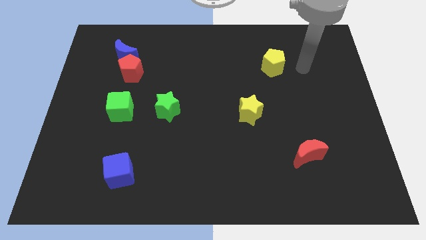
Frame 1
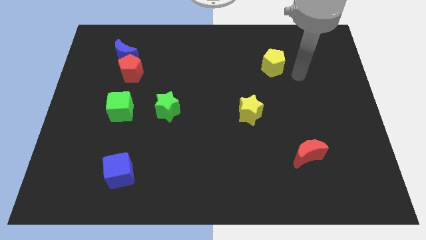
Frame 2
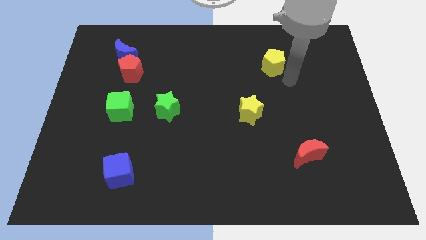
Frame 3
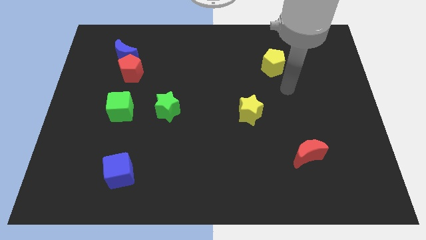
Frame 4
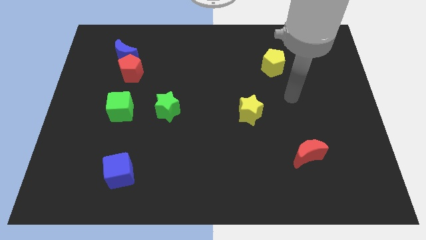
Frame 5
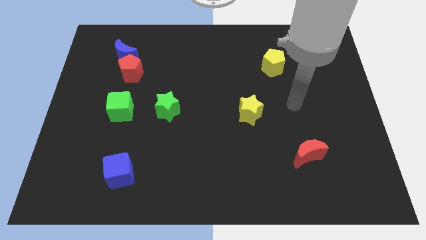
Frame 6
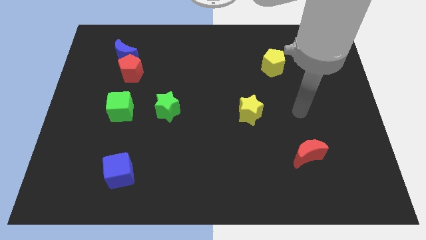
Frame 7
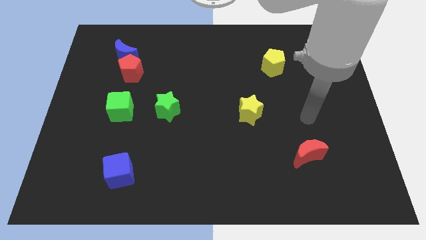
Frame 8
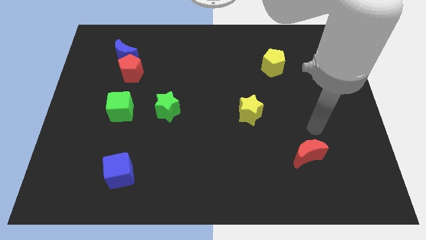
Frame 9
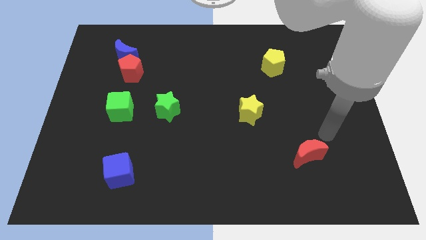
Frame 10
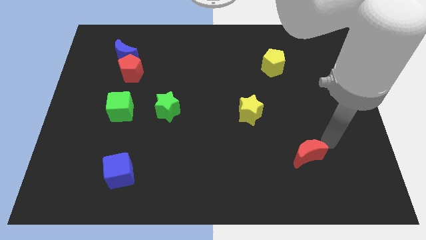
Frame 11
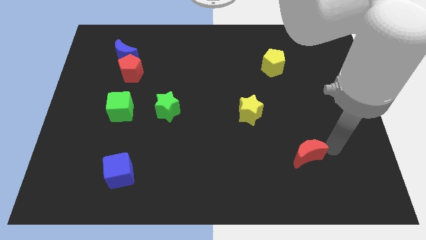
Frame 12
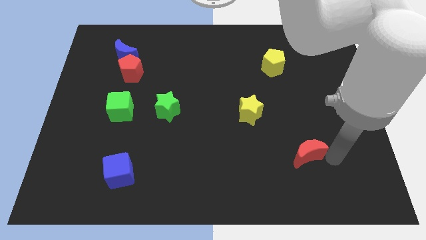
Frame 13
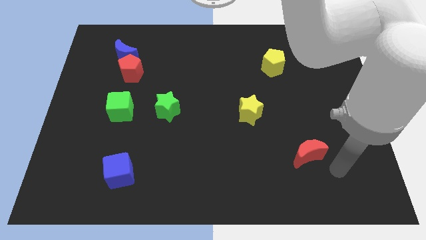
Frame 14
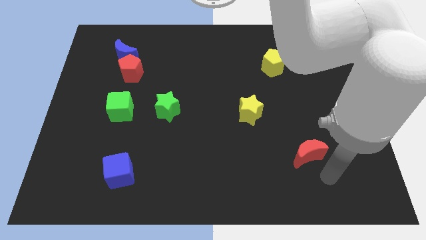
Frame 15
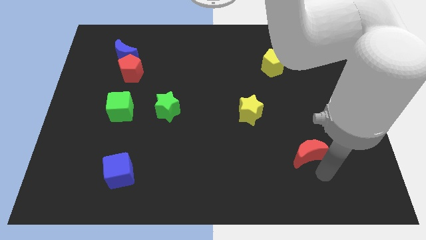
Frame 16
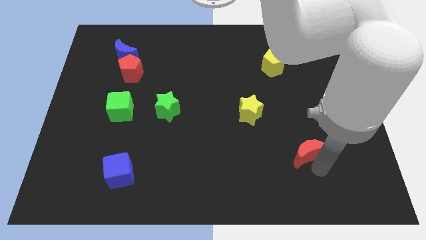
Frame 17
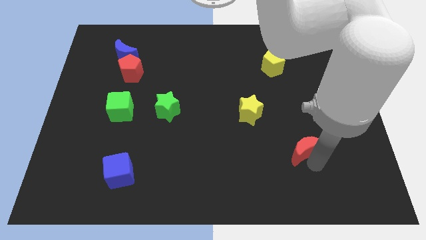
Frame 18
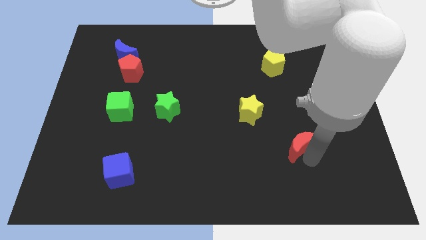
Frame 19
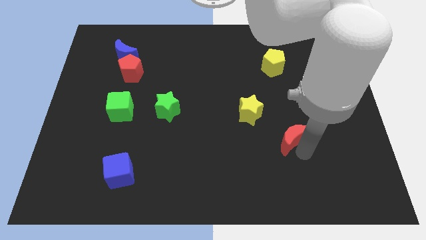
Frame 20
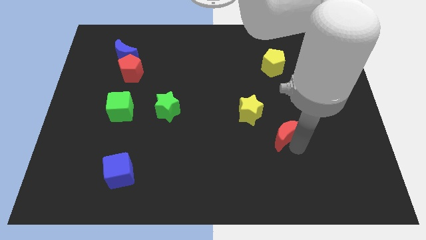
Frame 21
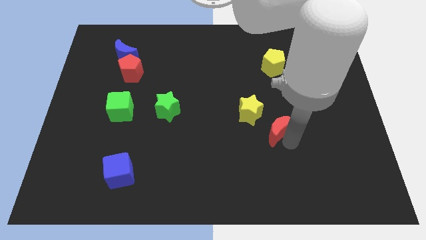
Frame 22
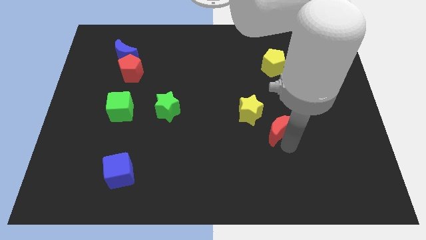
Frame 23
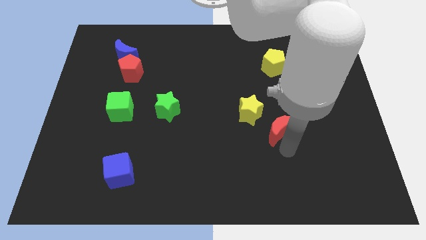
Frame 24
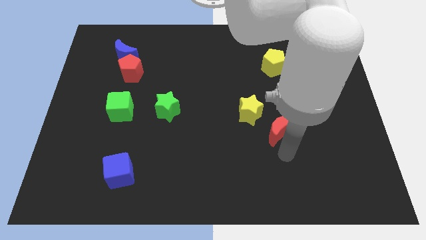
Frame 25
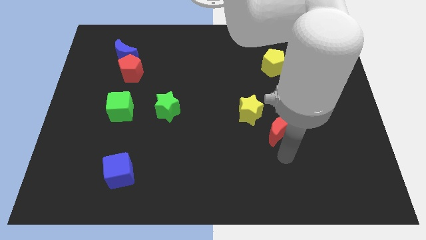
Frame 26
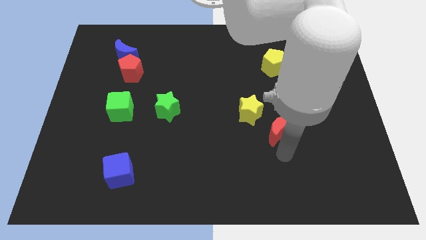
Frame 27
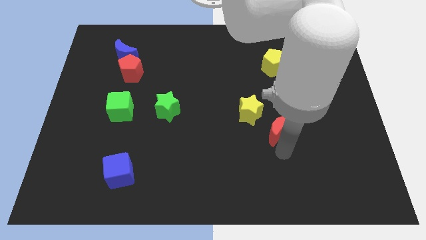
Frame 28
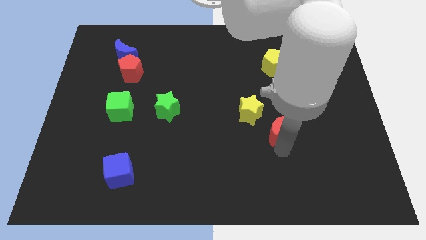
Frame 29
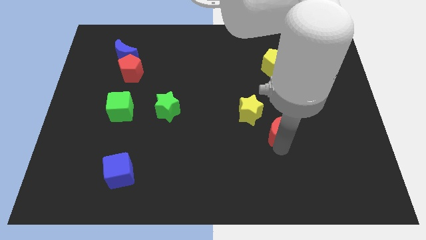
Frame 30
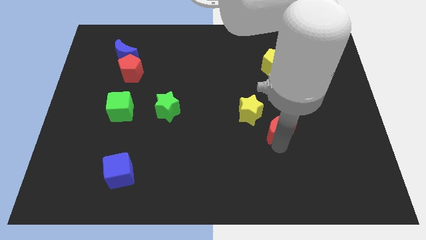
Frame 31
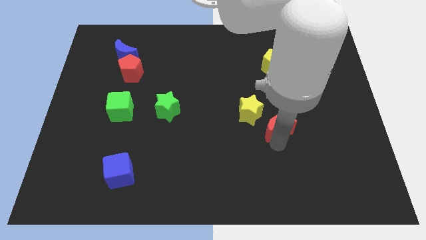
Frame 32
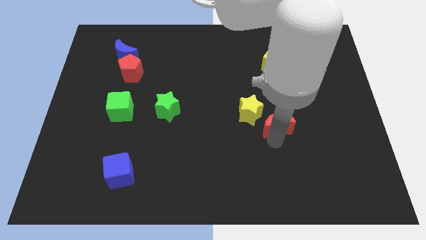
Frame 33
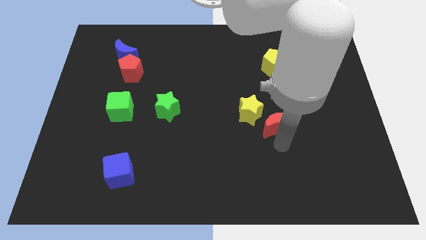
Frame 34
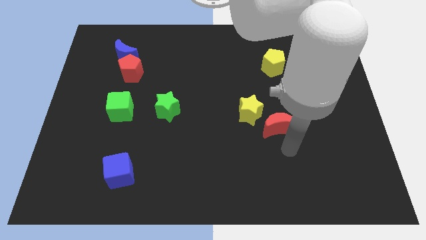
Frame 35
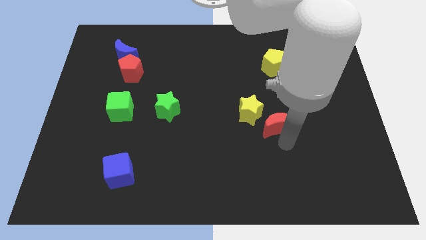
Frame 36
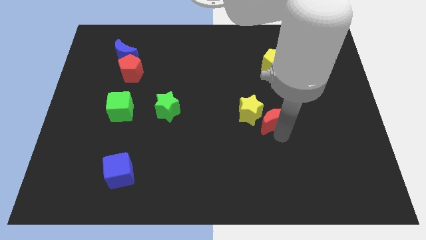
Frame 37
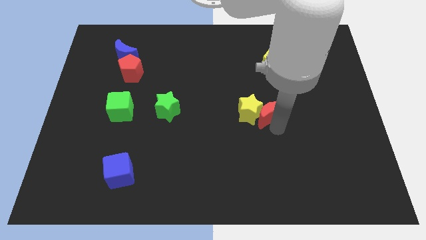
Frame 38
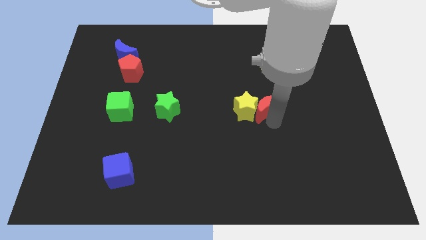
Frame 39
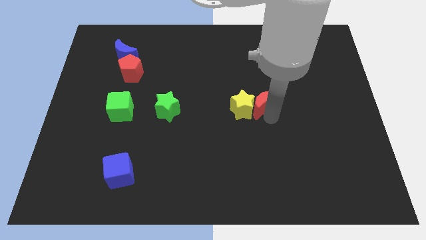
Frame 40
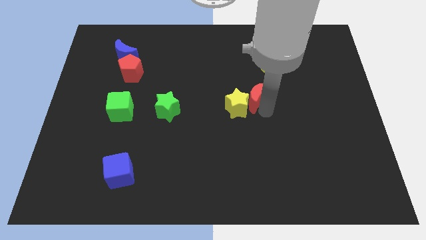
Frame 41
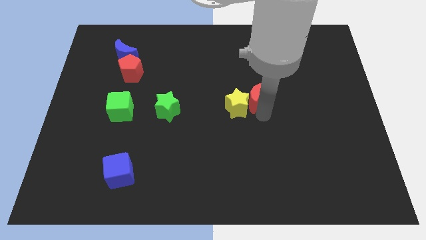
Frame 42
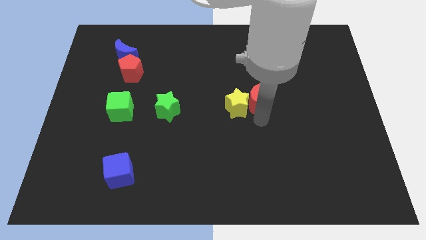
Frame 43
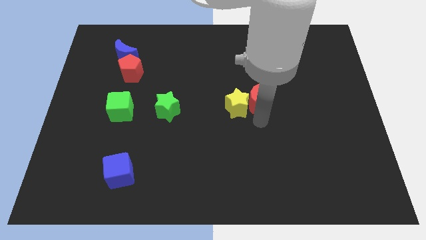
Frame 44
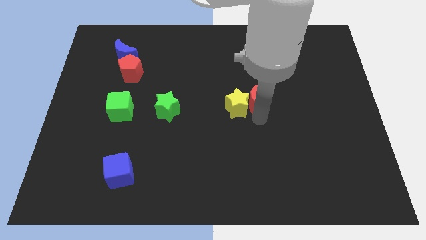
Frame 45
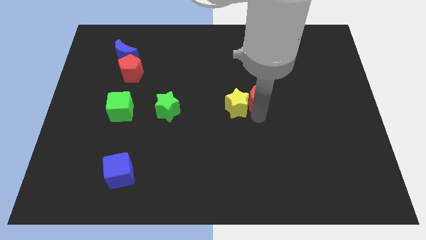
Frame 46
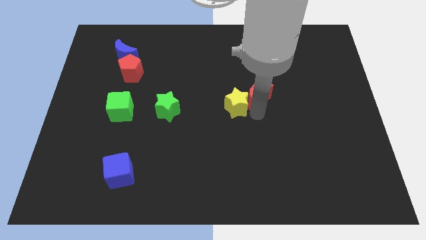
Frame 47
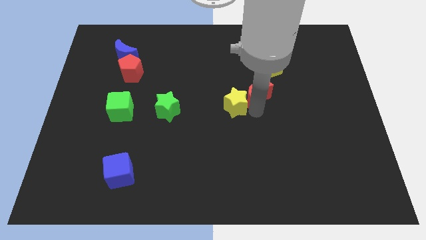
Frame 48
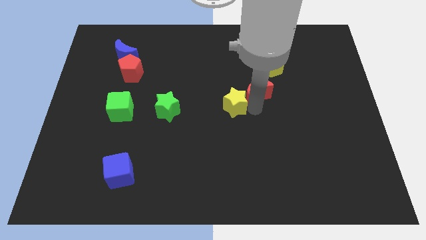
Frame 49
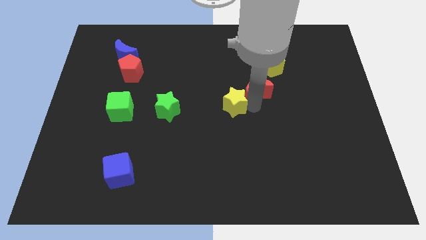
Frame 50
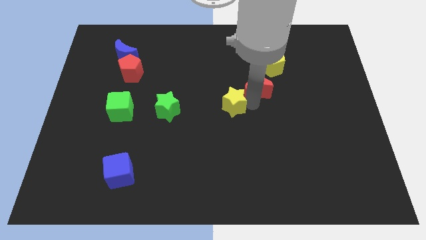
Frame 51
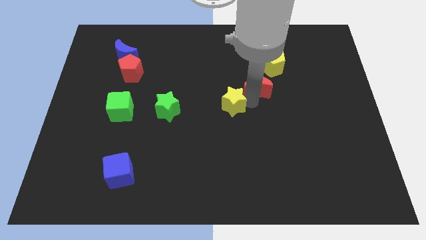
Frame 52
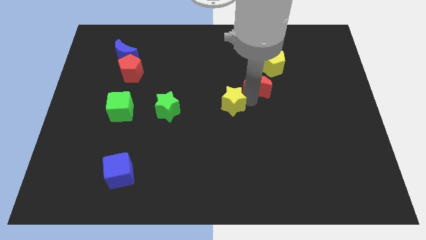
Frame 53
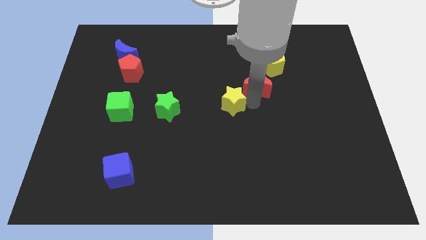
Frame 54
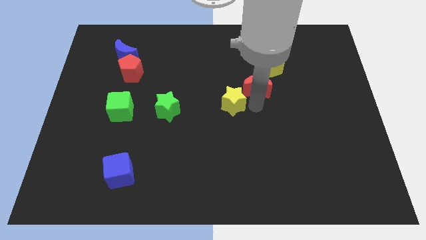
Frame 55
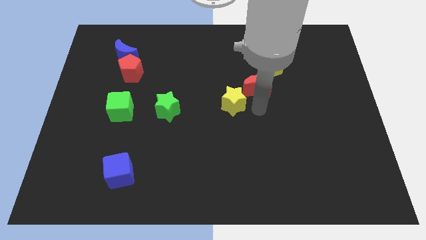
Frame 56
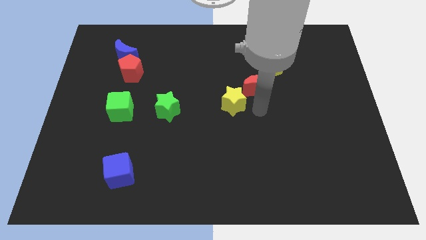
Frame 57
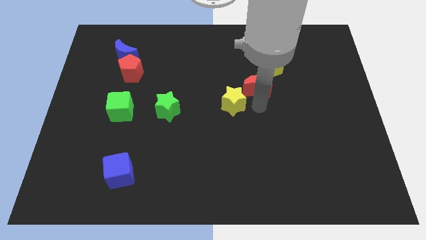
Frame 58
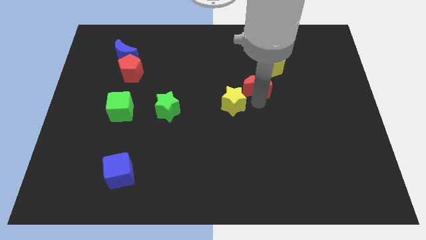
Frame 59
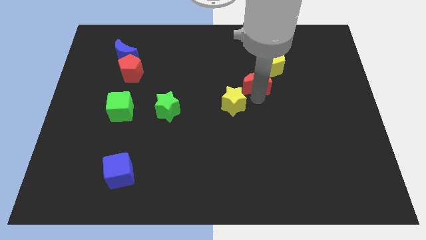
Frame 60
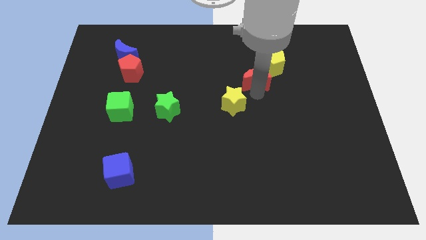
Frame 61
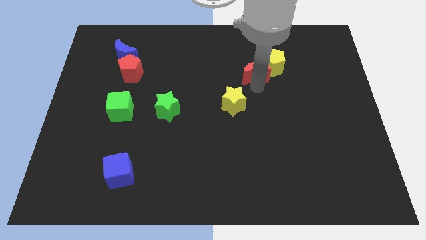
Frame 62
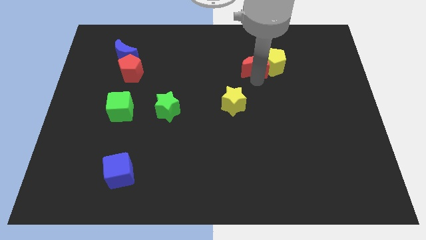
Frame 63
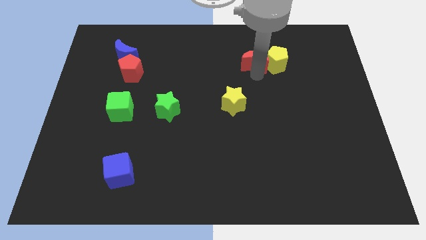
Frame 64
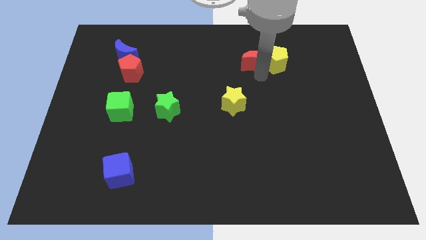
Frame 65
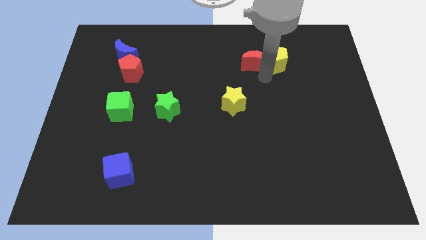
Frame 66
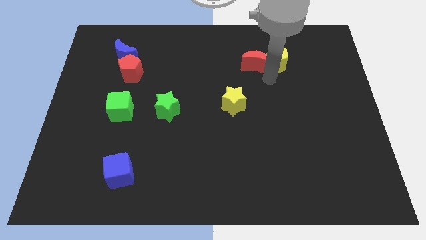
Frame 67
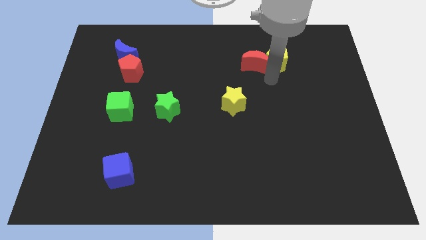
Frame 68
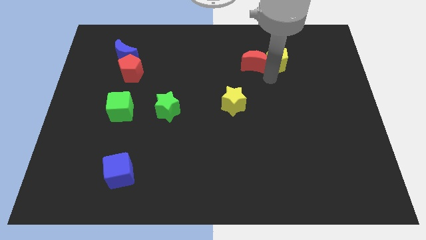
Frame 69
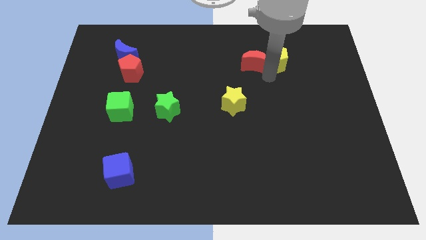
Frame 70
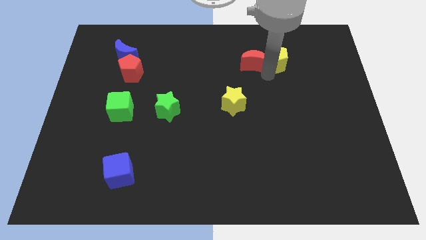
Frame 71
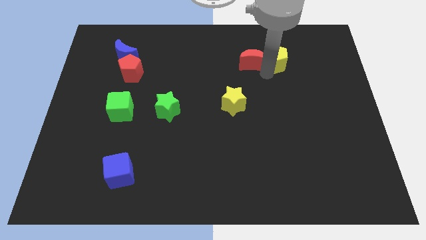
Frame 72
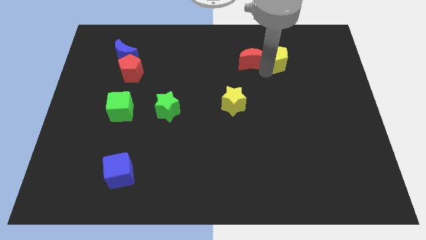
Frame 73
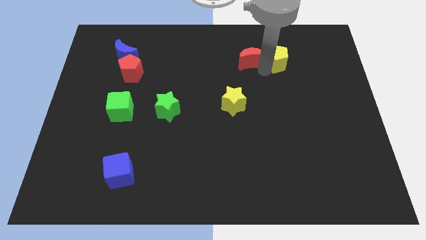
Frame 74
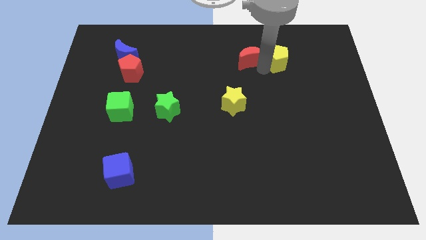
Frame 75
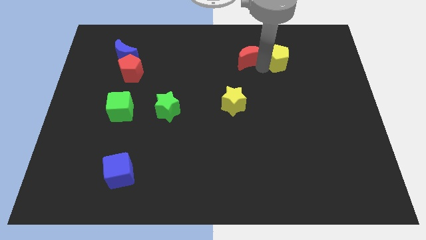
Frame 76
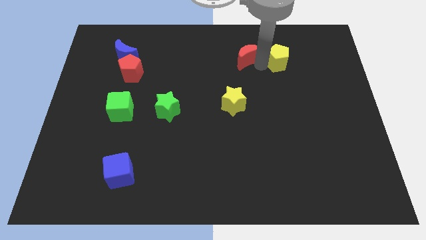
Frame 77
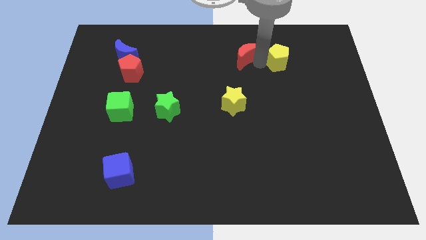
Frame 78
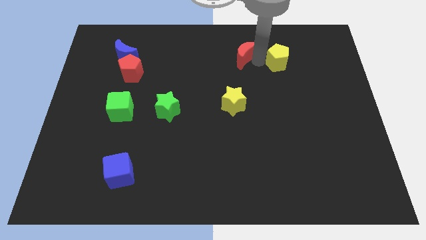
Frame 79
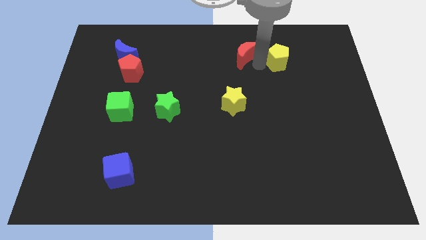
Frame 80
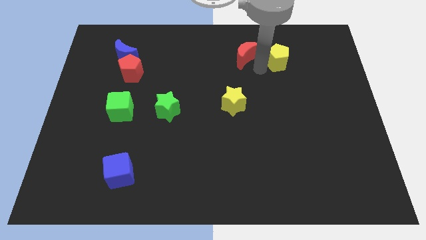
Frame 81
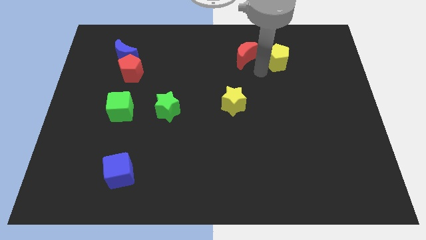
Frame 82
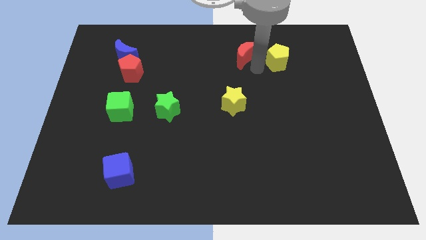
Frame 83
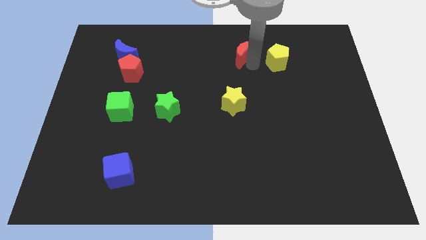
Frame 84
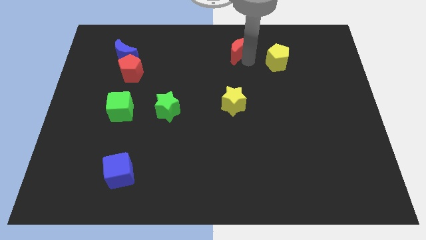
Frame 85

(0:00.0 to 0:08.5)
put the red moon to the towards your base
